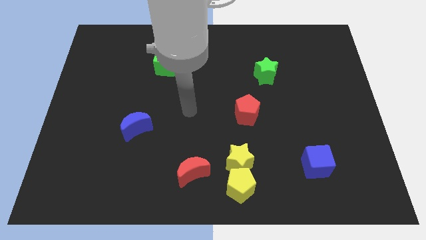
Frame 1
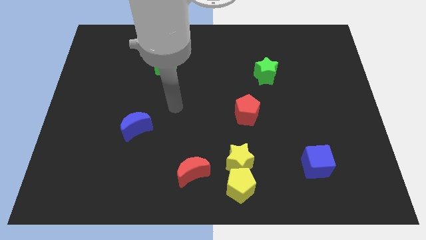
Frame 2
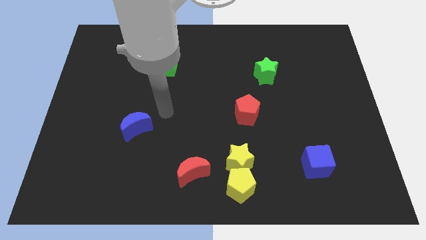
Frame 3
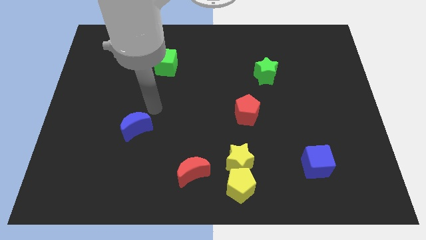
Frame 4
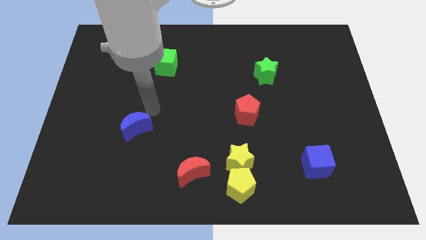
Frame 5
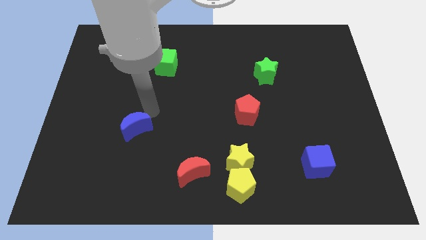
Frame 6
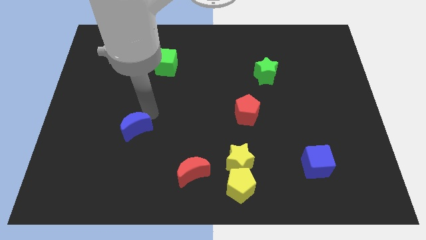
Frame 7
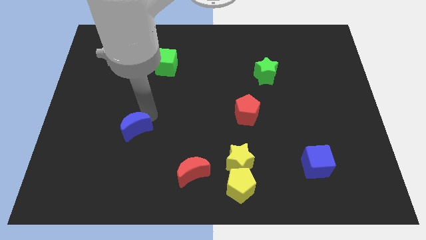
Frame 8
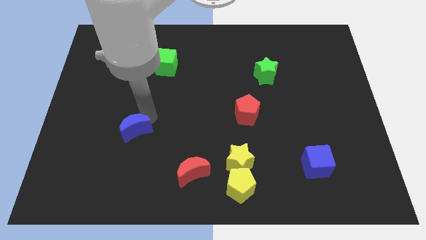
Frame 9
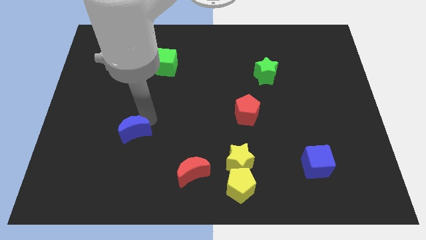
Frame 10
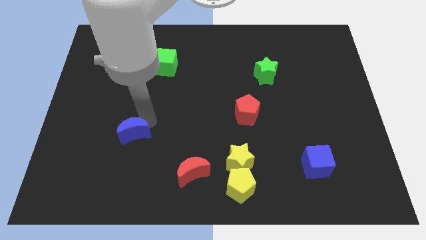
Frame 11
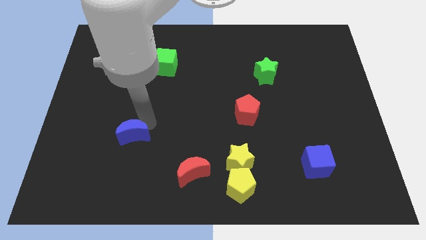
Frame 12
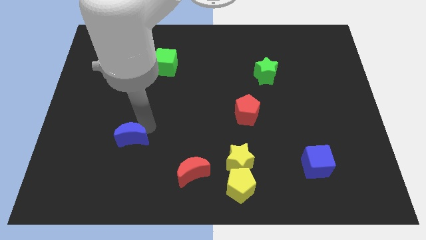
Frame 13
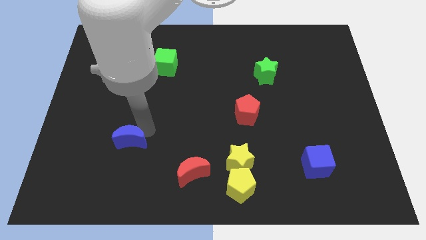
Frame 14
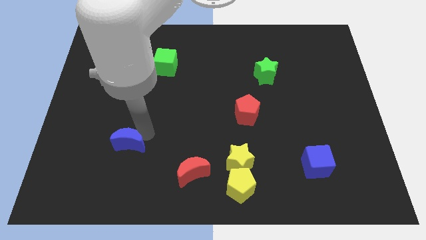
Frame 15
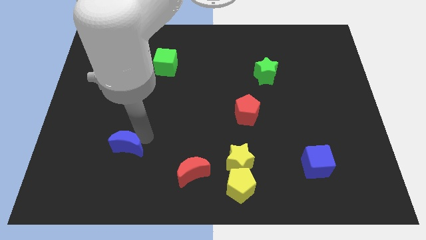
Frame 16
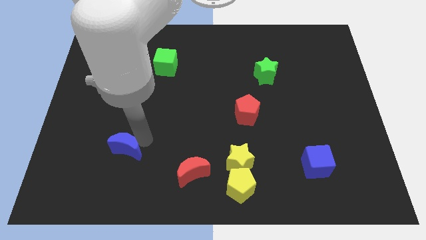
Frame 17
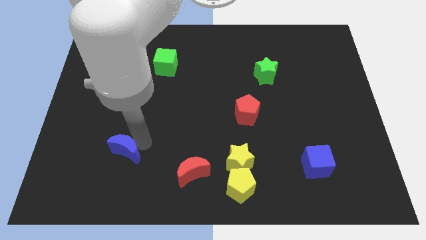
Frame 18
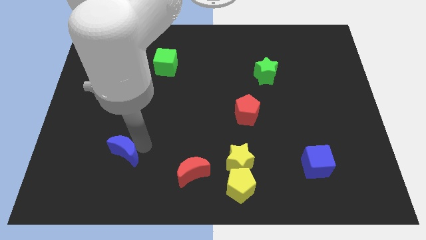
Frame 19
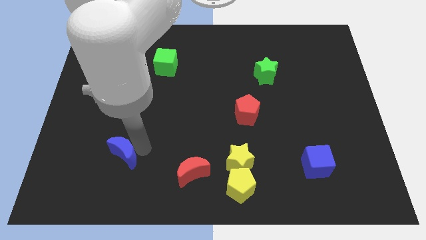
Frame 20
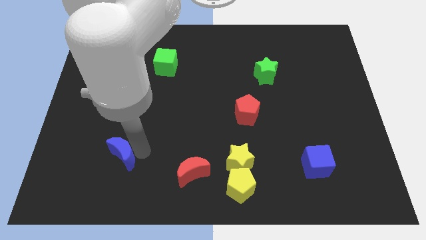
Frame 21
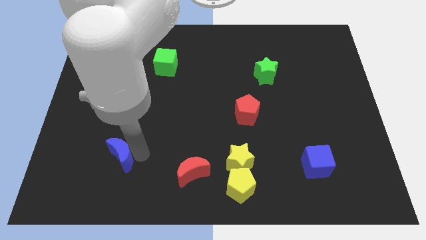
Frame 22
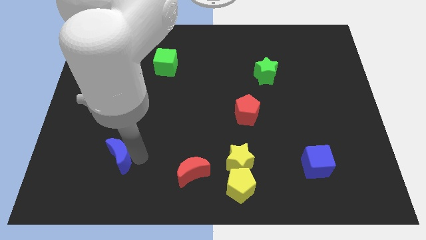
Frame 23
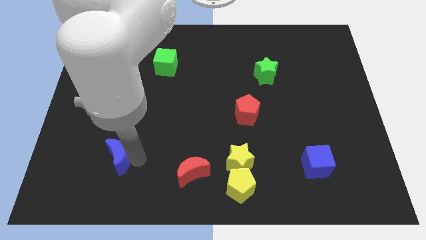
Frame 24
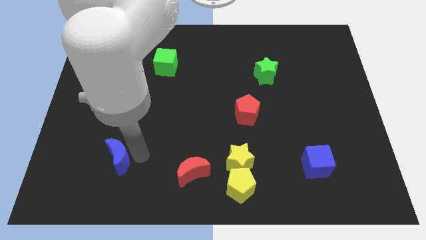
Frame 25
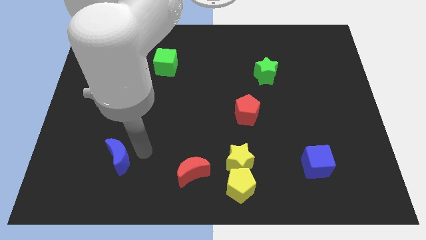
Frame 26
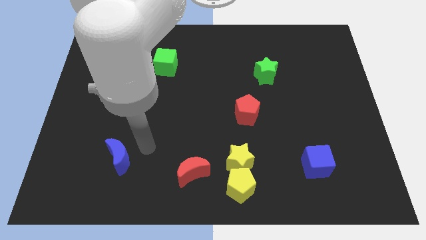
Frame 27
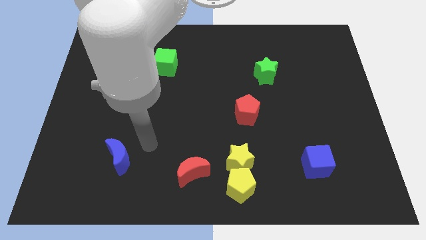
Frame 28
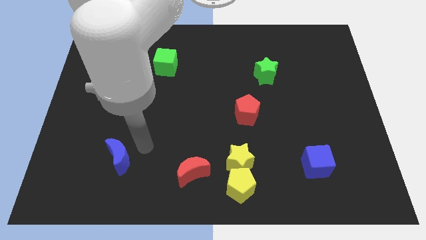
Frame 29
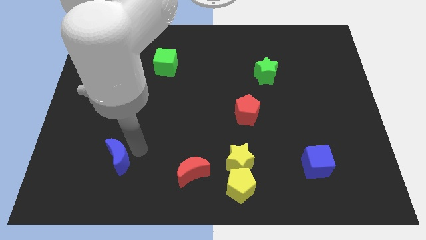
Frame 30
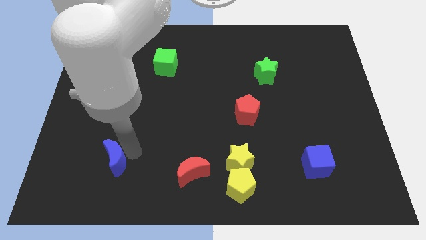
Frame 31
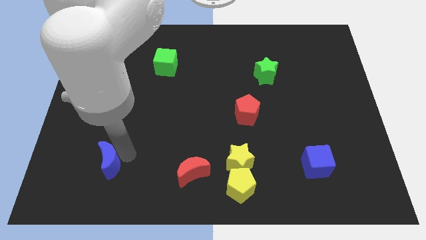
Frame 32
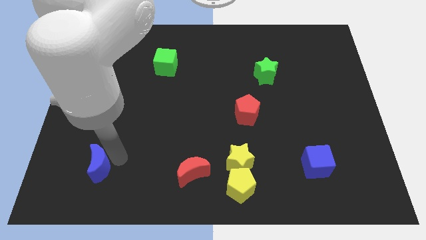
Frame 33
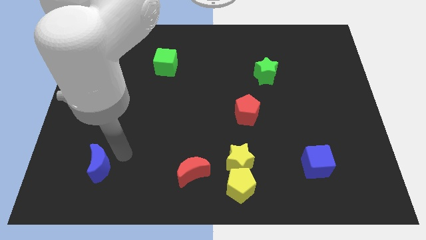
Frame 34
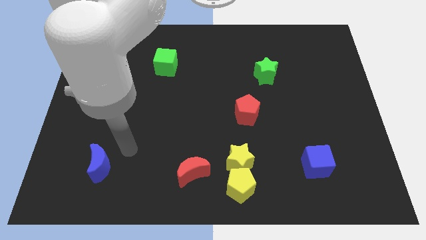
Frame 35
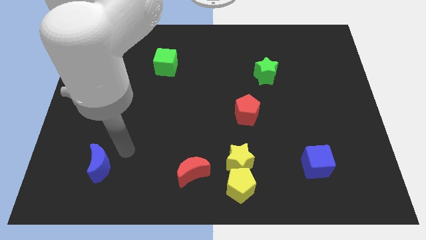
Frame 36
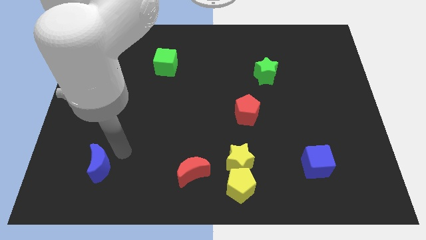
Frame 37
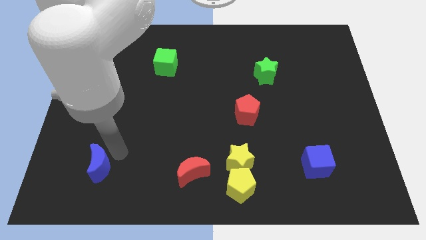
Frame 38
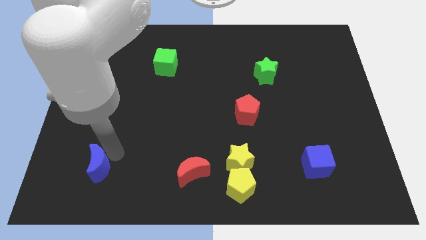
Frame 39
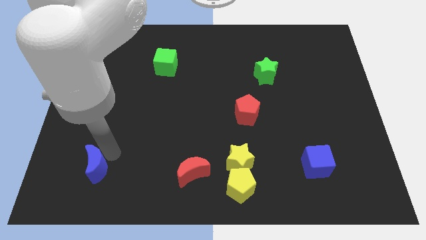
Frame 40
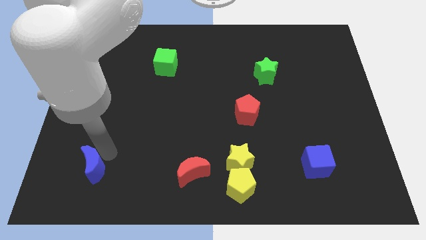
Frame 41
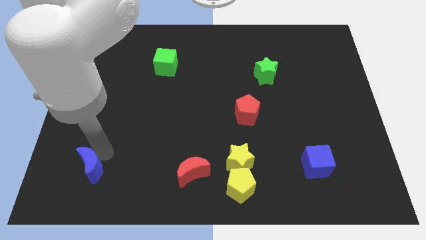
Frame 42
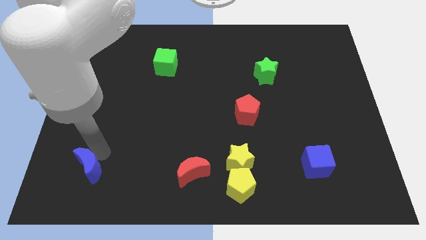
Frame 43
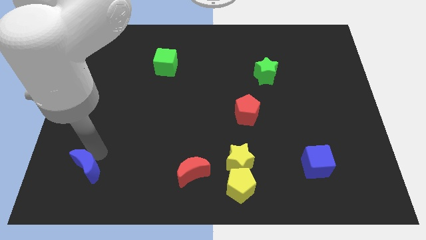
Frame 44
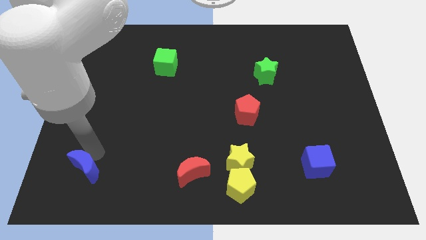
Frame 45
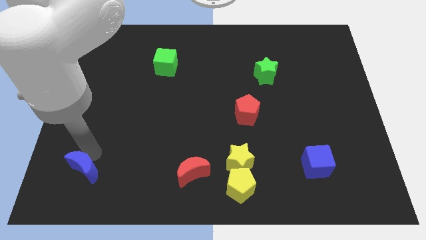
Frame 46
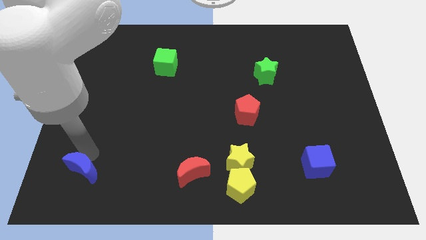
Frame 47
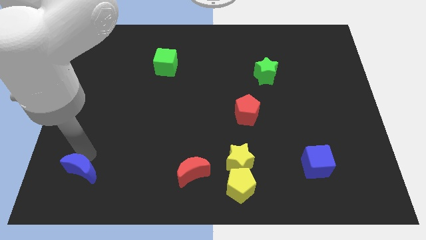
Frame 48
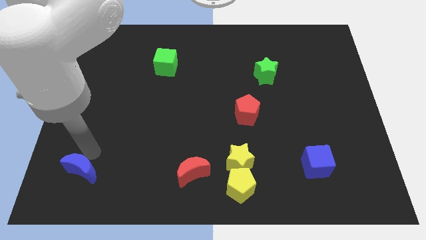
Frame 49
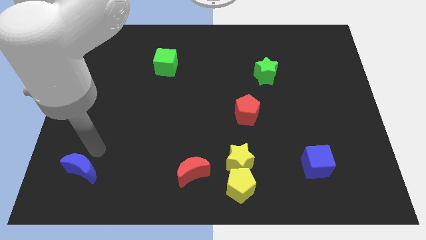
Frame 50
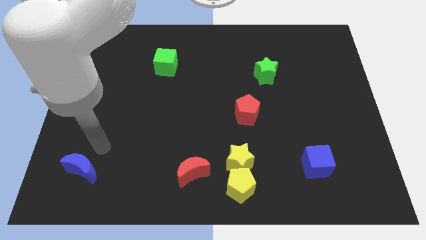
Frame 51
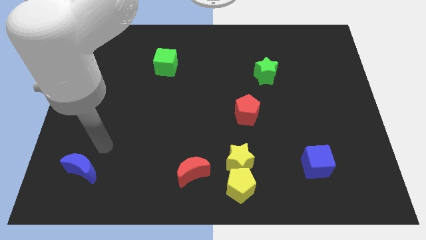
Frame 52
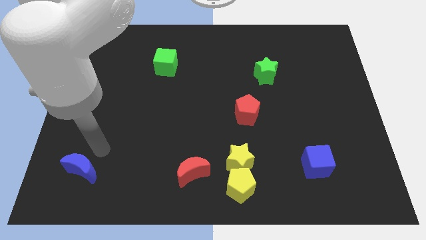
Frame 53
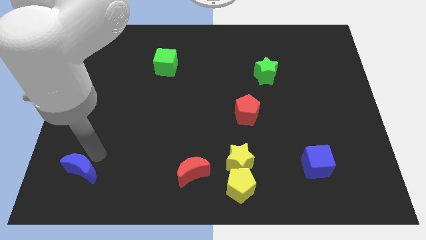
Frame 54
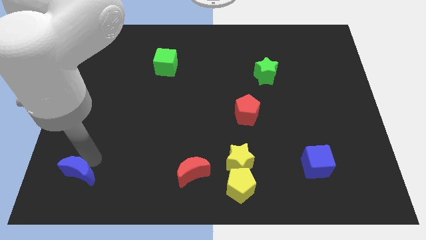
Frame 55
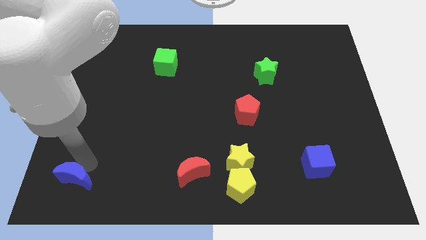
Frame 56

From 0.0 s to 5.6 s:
move the blue moon to the bottom left

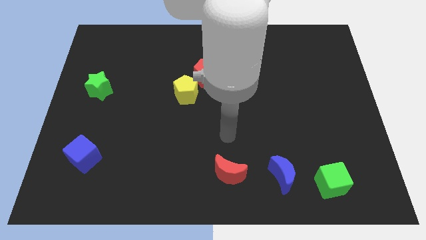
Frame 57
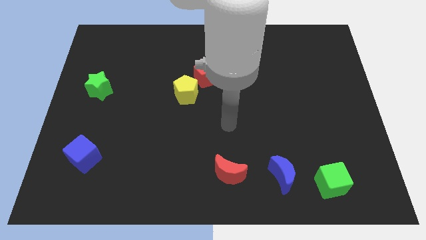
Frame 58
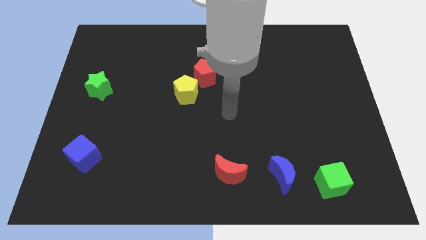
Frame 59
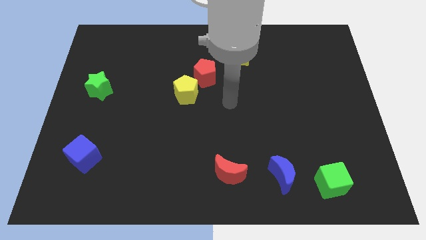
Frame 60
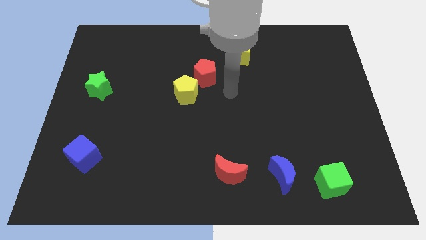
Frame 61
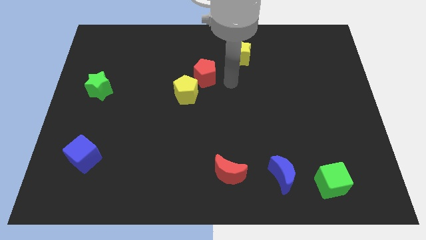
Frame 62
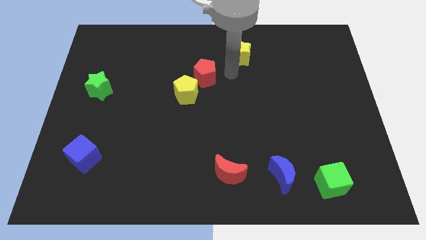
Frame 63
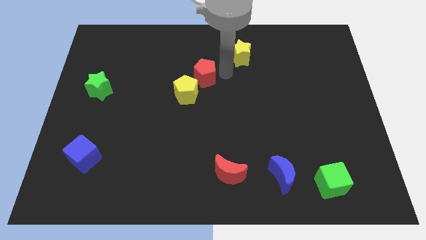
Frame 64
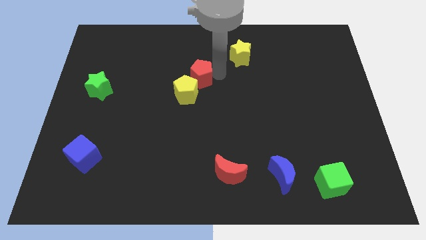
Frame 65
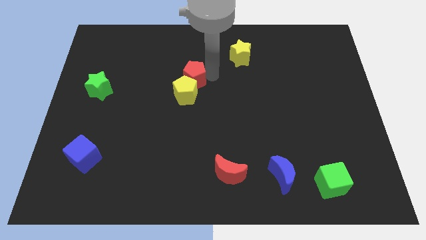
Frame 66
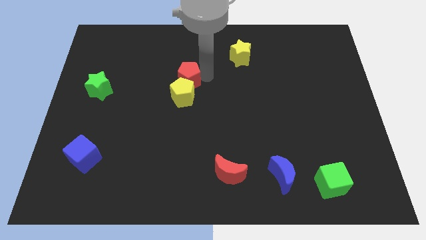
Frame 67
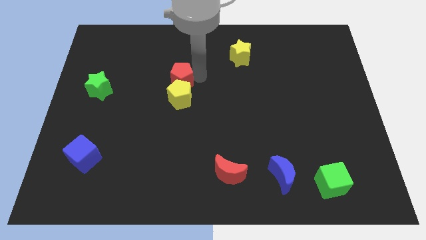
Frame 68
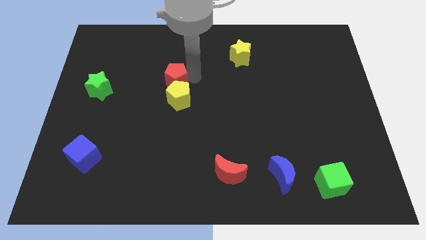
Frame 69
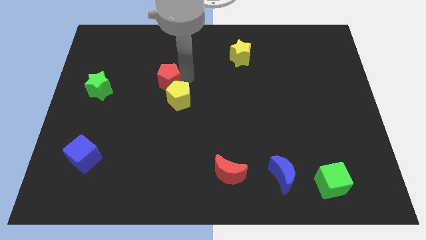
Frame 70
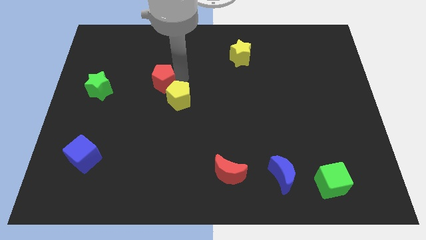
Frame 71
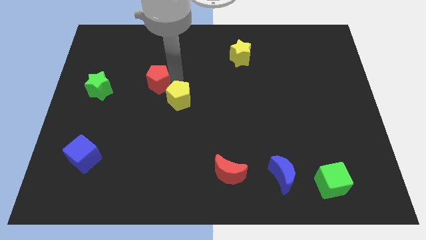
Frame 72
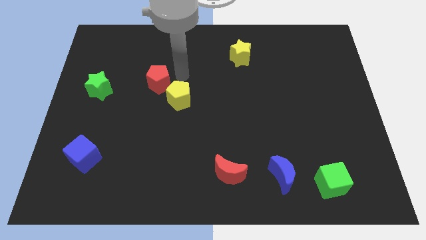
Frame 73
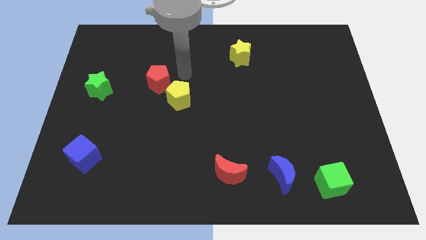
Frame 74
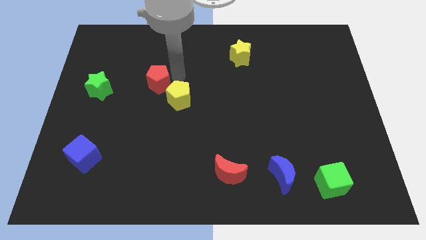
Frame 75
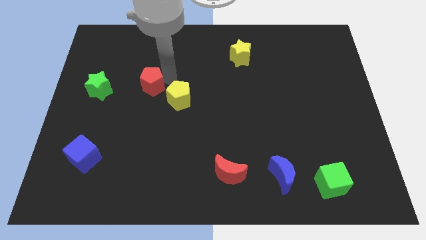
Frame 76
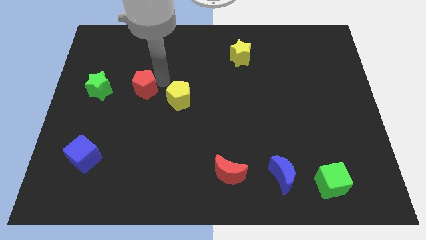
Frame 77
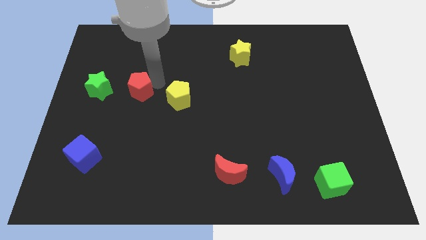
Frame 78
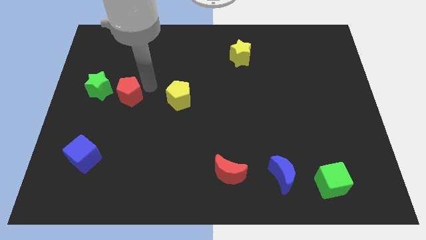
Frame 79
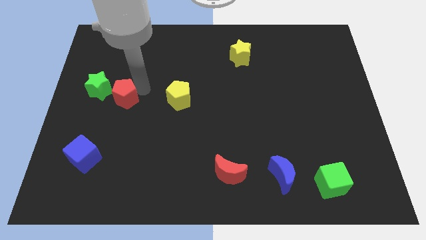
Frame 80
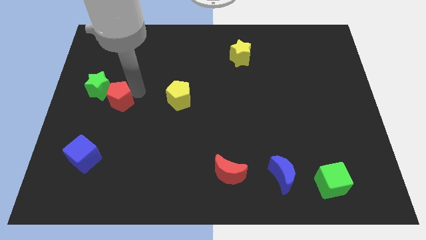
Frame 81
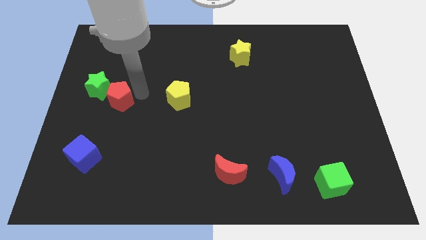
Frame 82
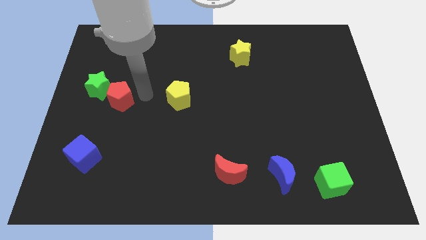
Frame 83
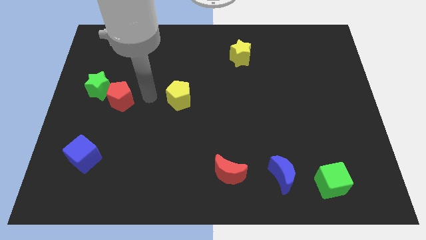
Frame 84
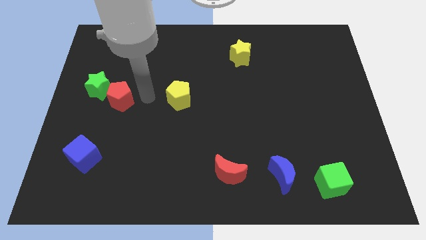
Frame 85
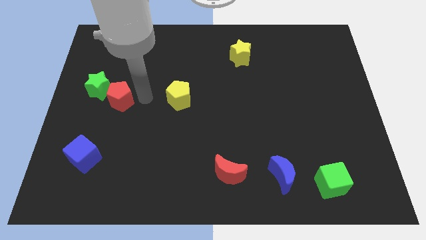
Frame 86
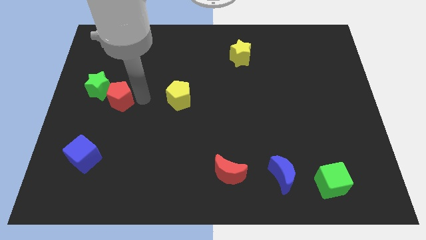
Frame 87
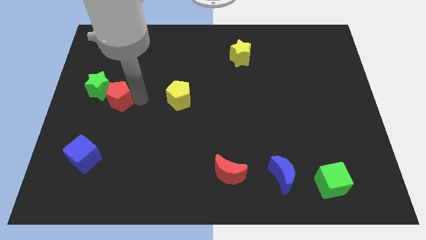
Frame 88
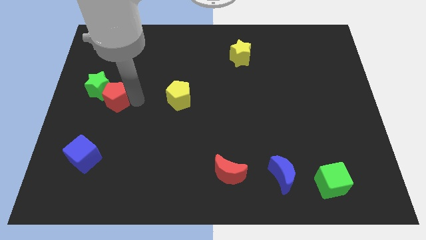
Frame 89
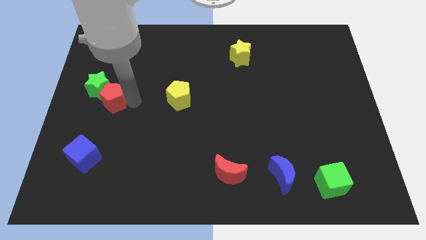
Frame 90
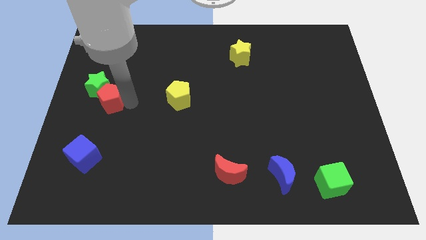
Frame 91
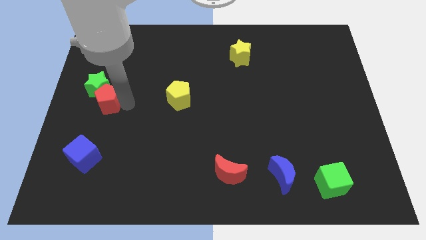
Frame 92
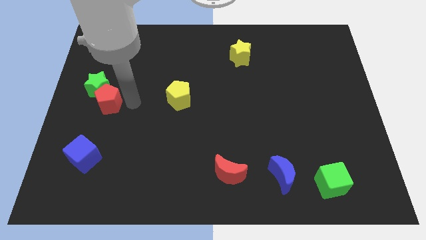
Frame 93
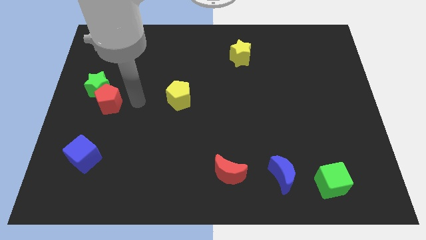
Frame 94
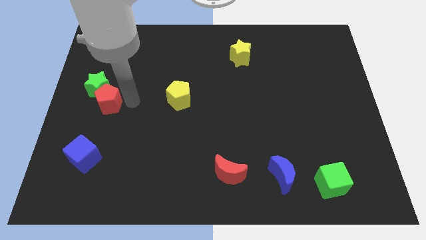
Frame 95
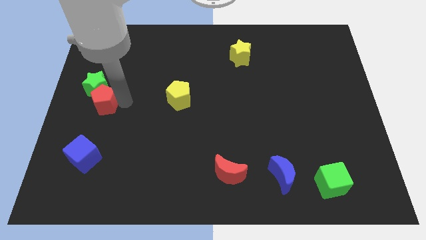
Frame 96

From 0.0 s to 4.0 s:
push the red pentagon to the center left
